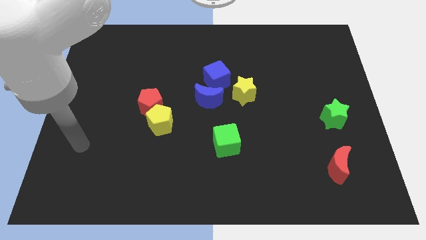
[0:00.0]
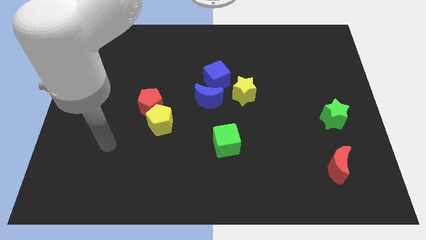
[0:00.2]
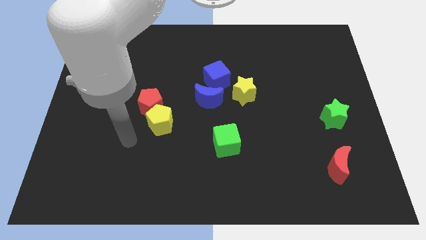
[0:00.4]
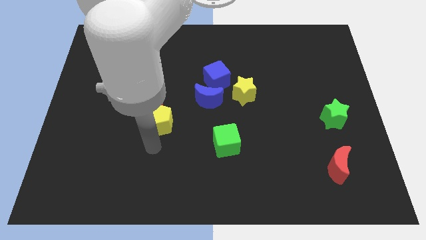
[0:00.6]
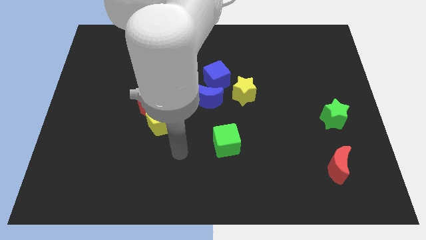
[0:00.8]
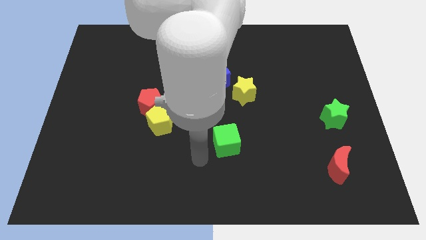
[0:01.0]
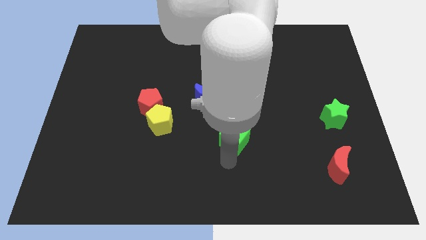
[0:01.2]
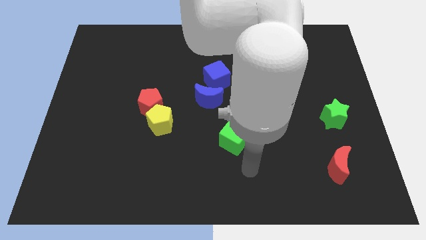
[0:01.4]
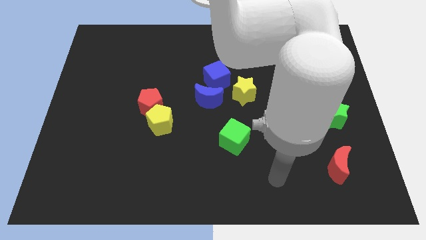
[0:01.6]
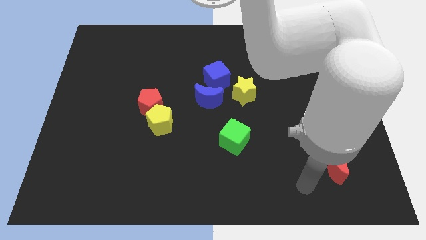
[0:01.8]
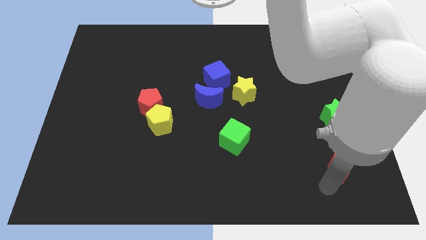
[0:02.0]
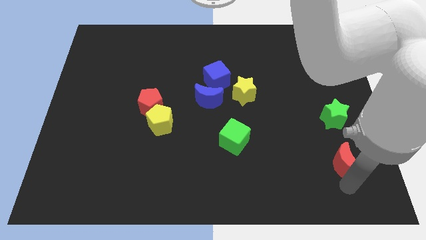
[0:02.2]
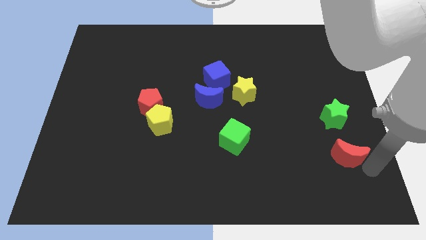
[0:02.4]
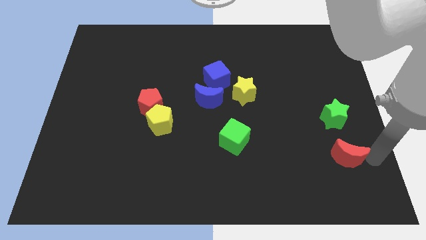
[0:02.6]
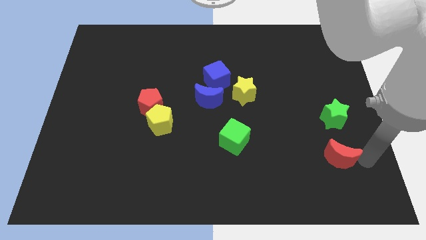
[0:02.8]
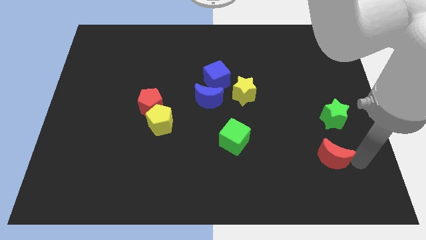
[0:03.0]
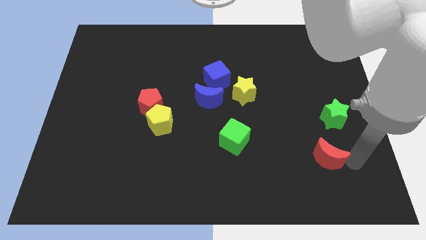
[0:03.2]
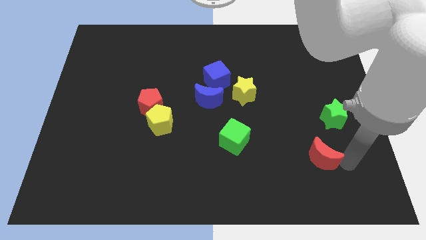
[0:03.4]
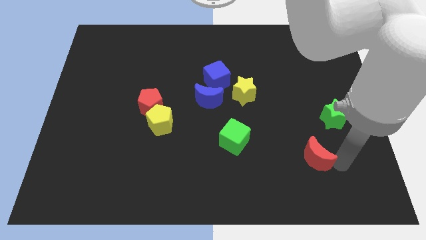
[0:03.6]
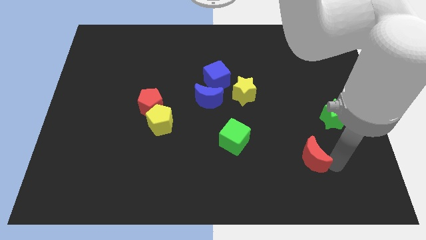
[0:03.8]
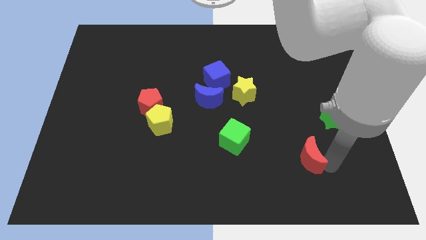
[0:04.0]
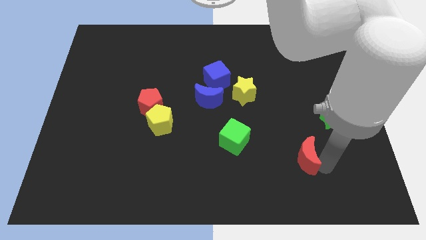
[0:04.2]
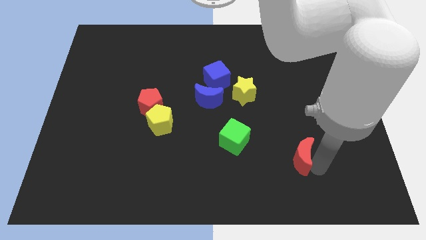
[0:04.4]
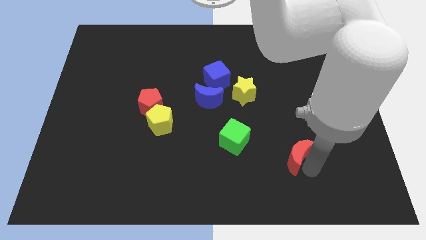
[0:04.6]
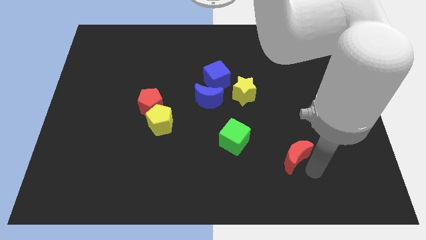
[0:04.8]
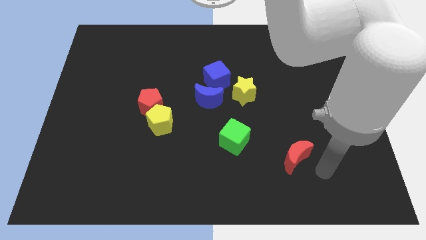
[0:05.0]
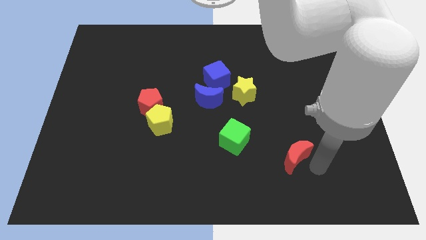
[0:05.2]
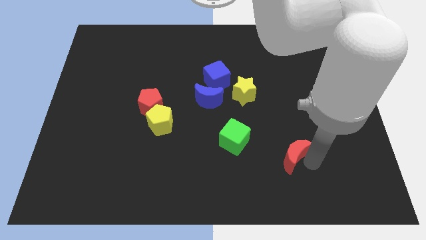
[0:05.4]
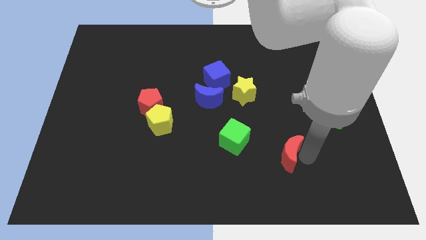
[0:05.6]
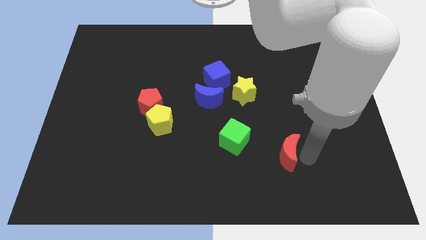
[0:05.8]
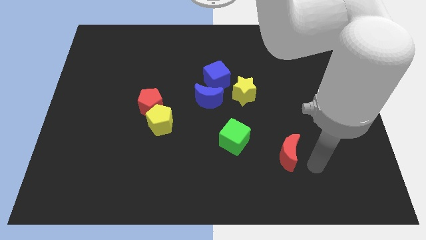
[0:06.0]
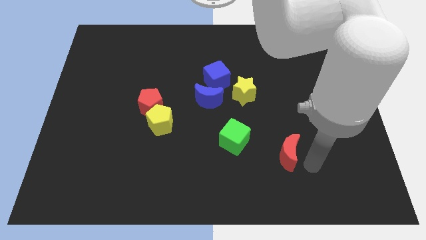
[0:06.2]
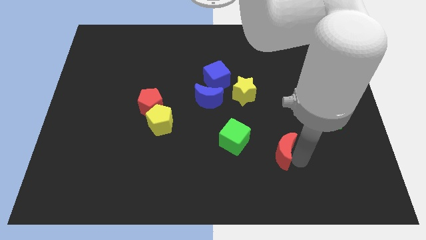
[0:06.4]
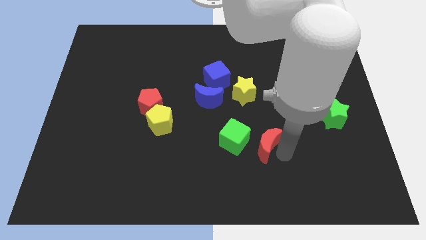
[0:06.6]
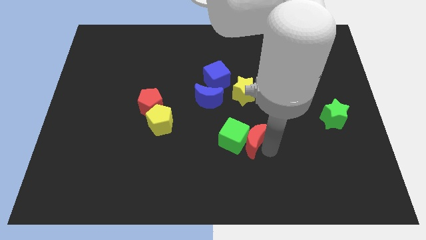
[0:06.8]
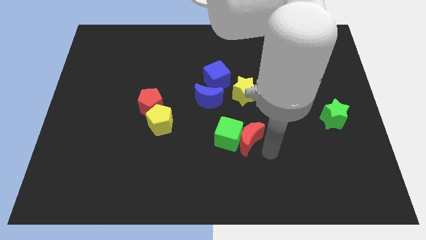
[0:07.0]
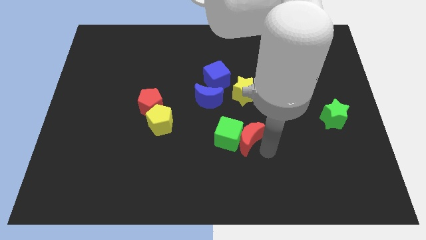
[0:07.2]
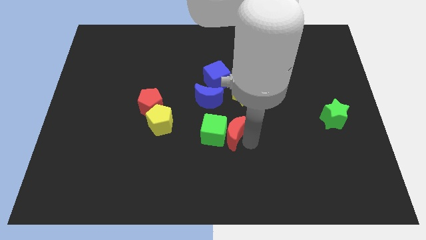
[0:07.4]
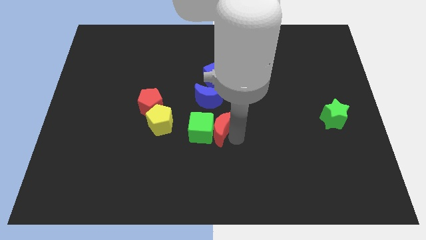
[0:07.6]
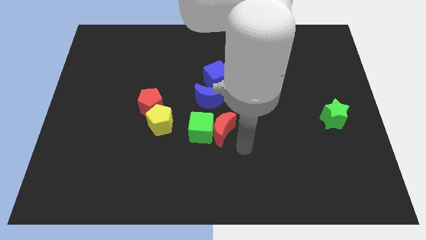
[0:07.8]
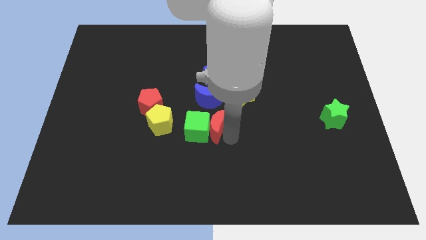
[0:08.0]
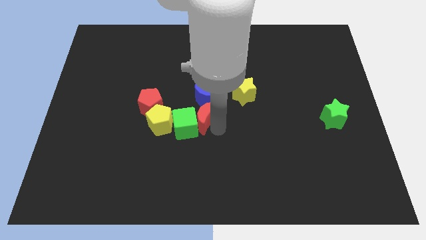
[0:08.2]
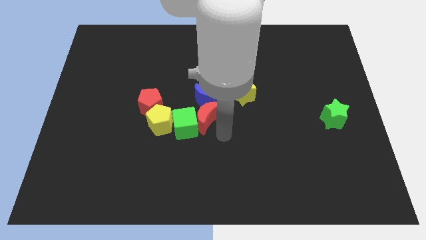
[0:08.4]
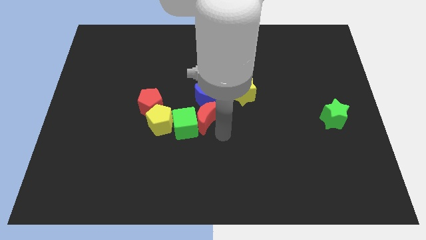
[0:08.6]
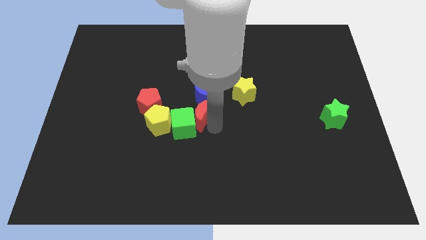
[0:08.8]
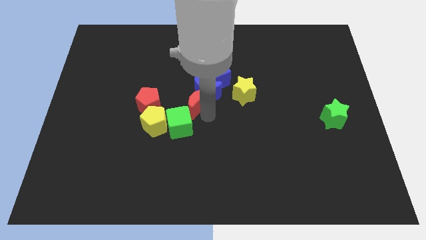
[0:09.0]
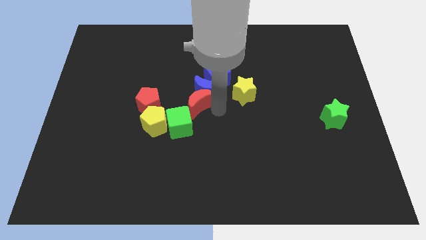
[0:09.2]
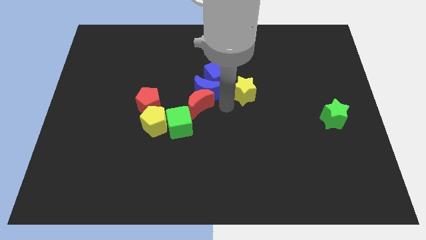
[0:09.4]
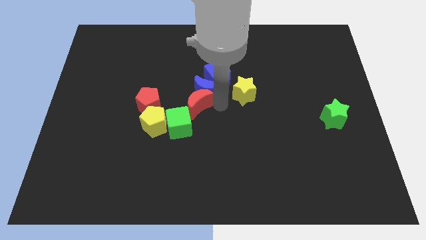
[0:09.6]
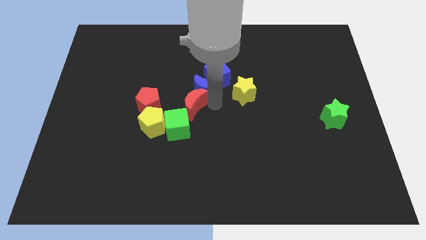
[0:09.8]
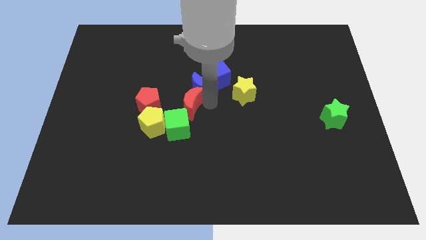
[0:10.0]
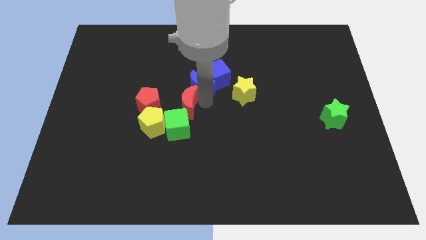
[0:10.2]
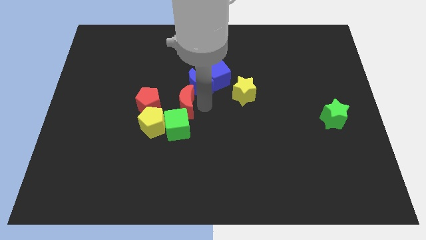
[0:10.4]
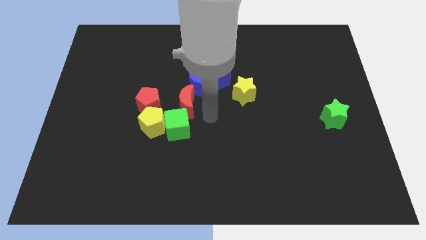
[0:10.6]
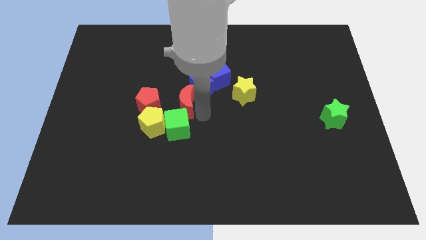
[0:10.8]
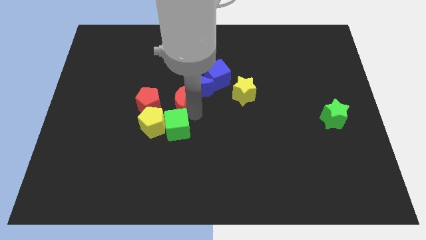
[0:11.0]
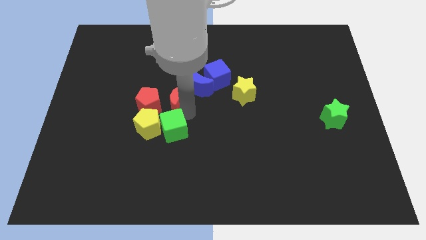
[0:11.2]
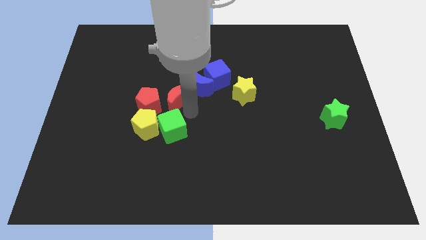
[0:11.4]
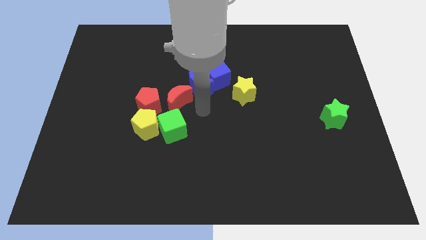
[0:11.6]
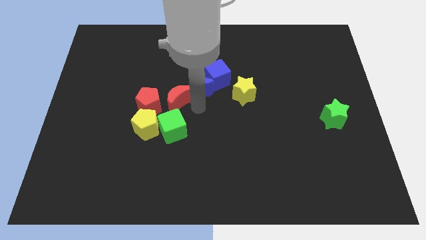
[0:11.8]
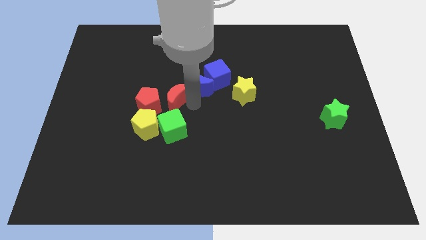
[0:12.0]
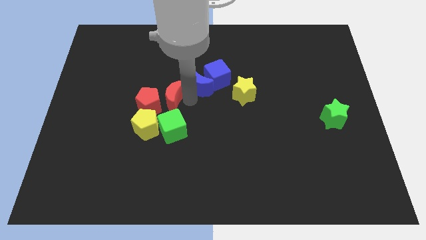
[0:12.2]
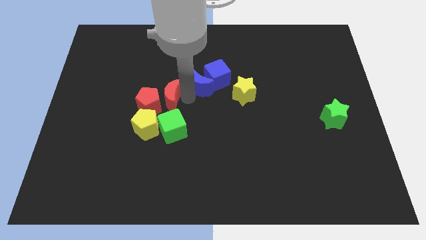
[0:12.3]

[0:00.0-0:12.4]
put the red moon to the top side of the yellow pentagon

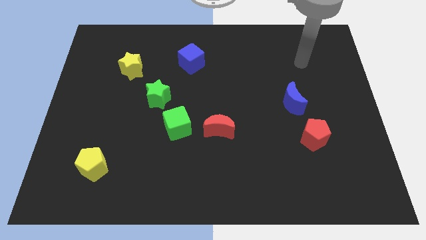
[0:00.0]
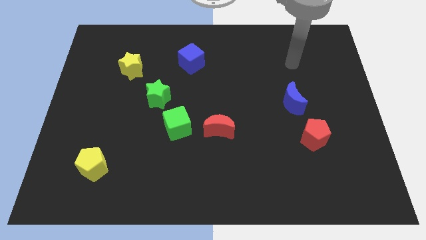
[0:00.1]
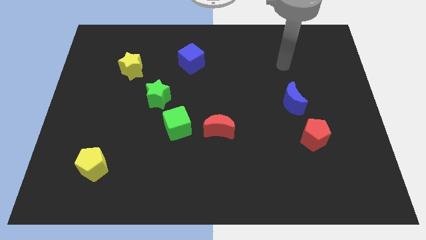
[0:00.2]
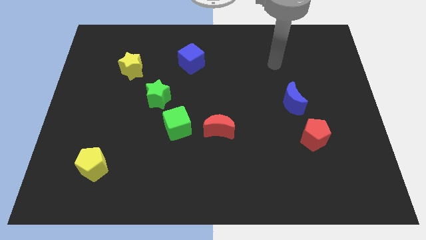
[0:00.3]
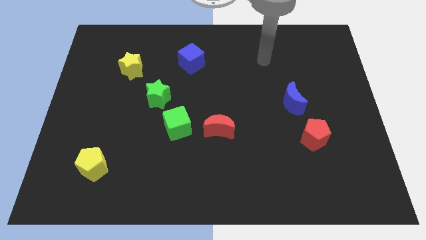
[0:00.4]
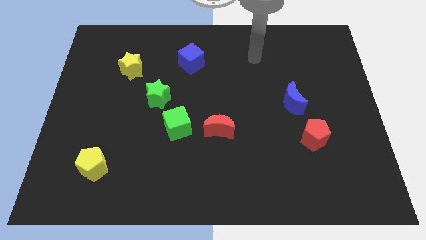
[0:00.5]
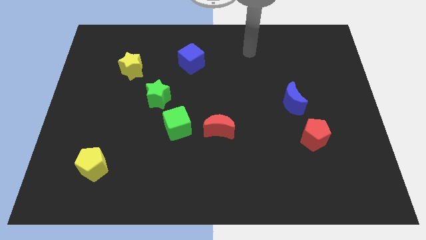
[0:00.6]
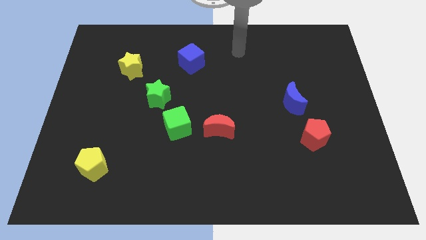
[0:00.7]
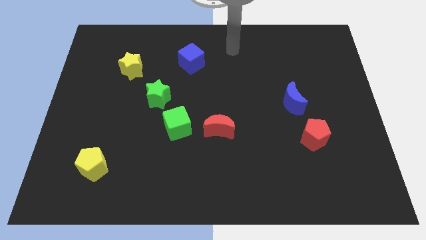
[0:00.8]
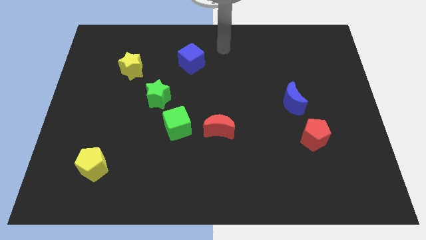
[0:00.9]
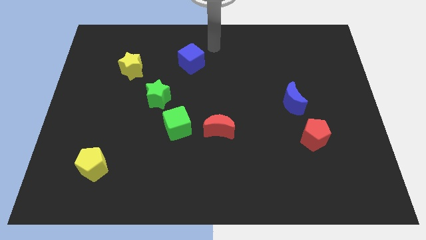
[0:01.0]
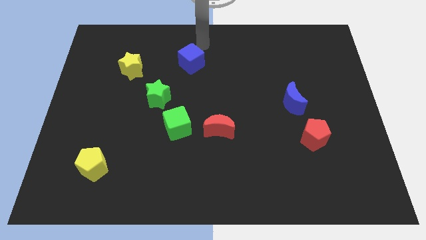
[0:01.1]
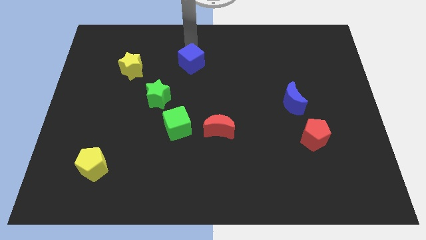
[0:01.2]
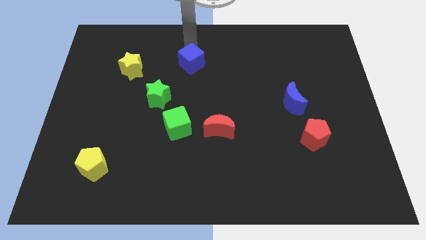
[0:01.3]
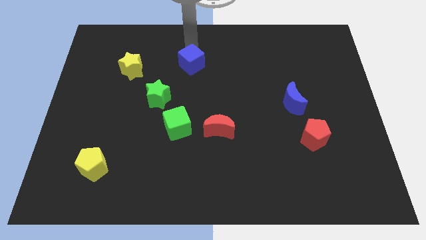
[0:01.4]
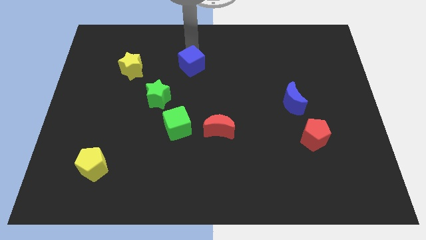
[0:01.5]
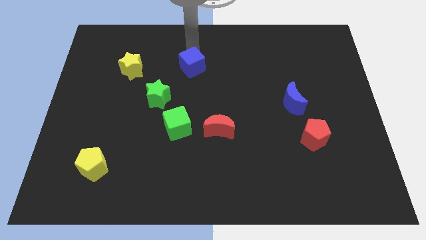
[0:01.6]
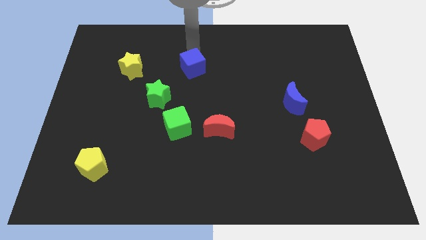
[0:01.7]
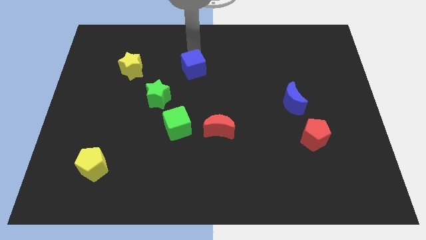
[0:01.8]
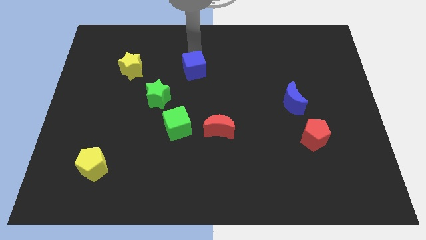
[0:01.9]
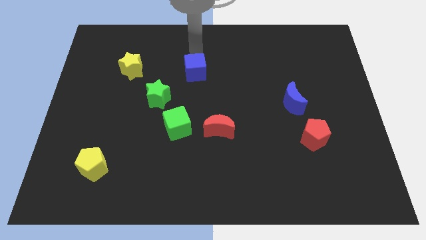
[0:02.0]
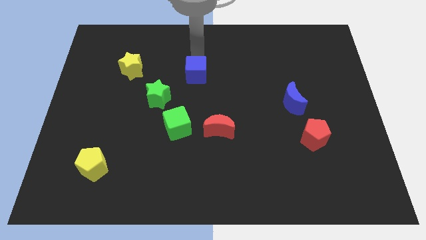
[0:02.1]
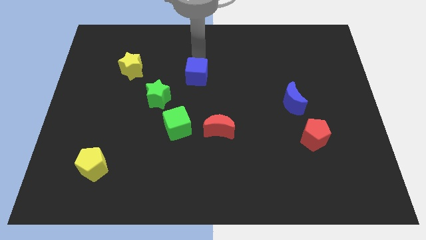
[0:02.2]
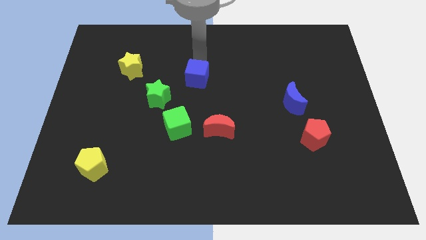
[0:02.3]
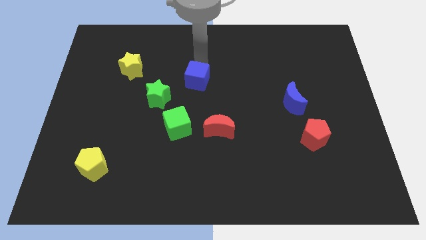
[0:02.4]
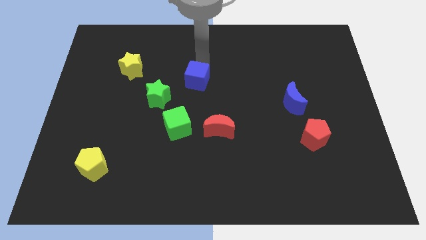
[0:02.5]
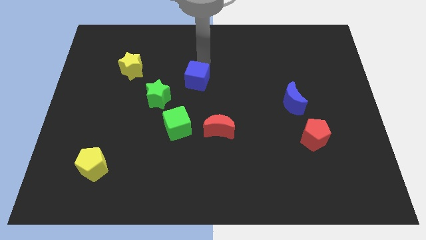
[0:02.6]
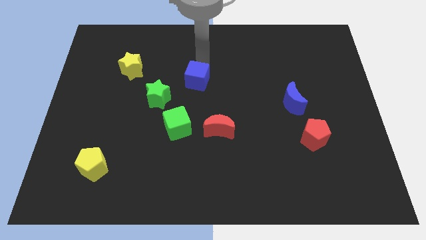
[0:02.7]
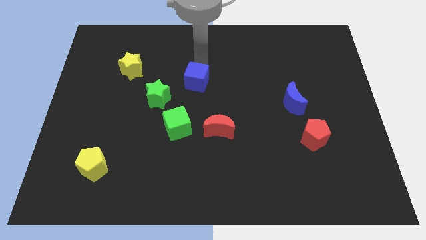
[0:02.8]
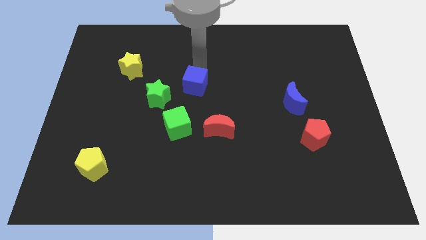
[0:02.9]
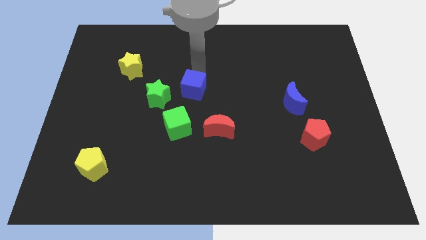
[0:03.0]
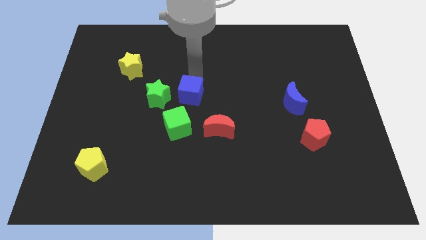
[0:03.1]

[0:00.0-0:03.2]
put the blue cube diagonally up and to the left of the red moon
